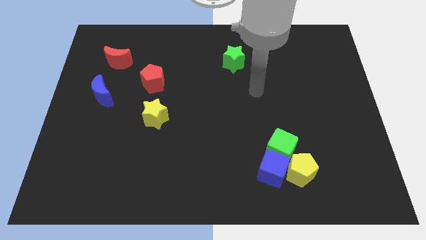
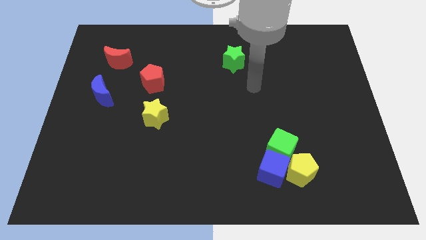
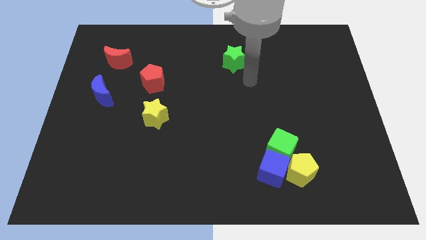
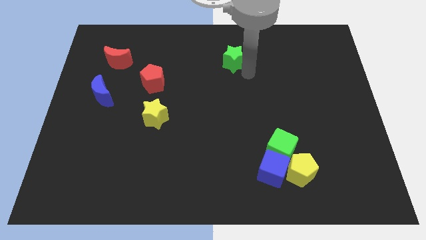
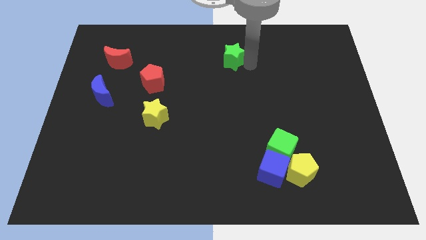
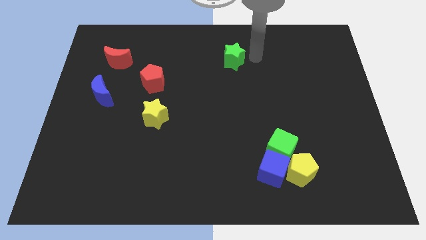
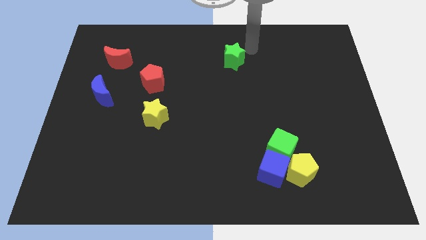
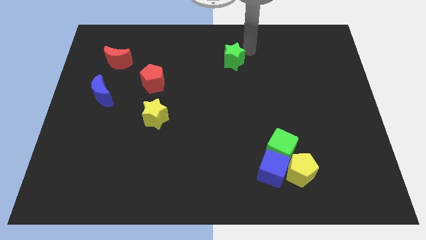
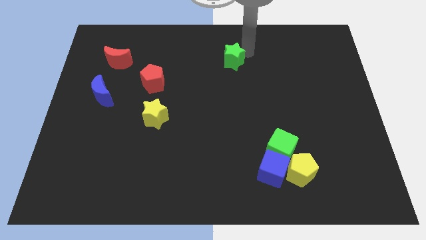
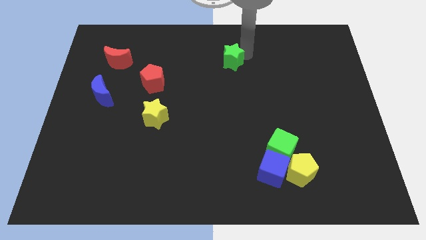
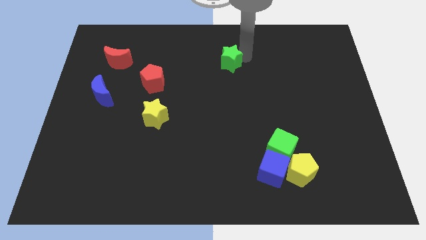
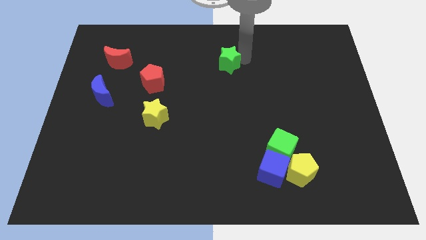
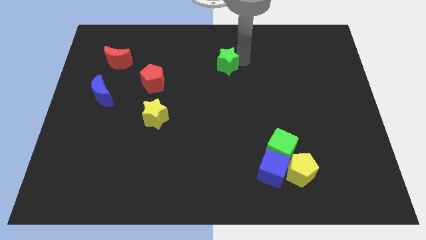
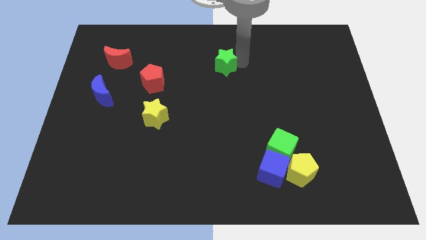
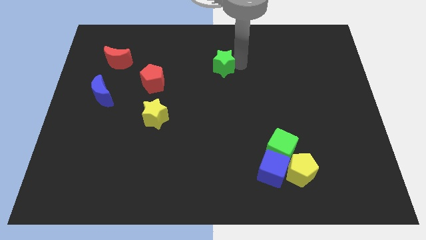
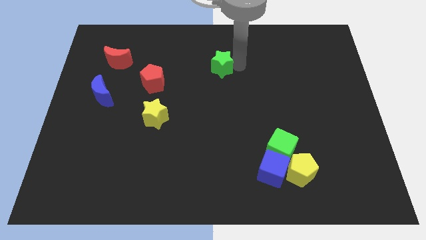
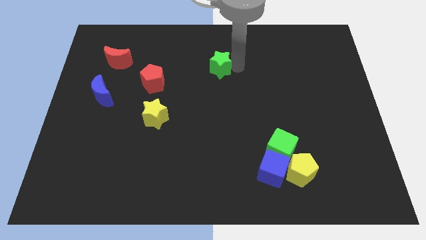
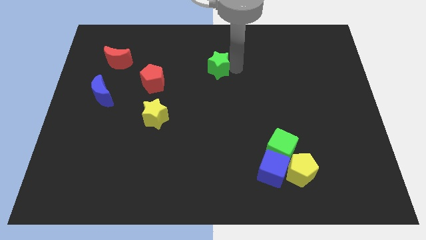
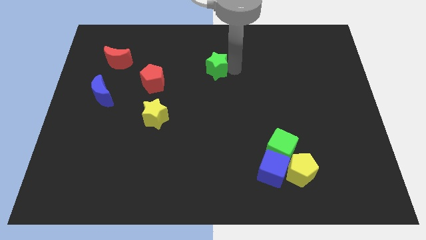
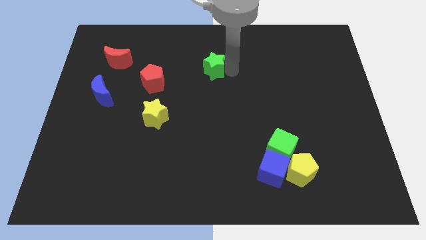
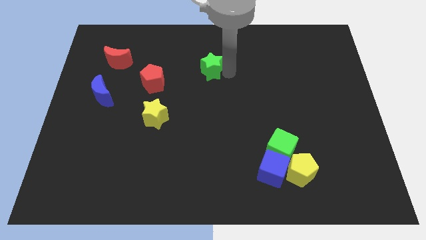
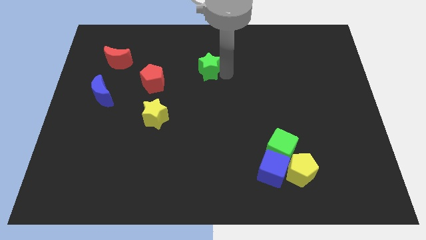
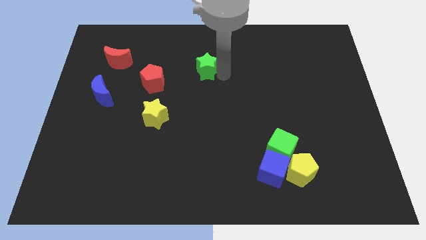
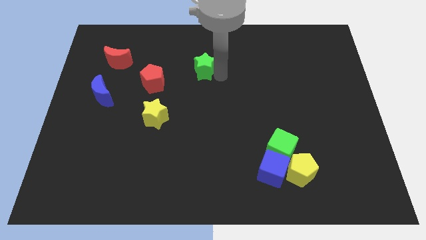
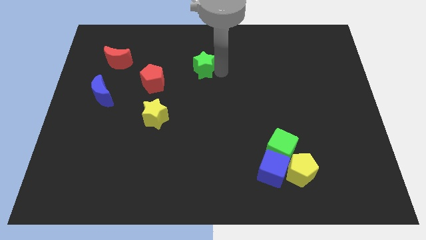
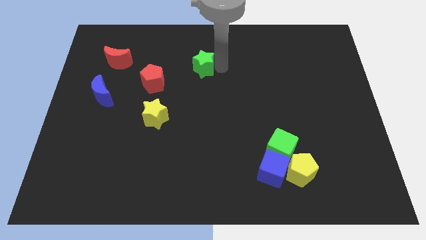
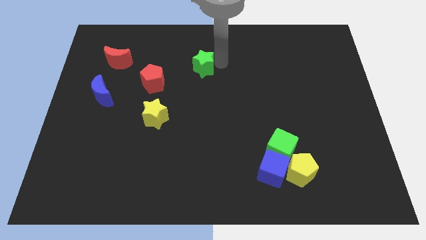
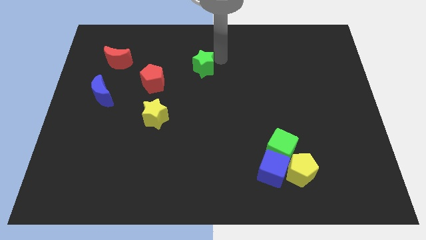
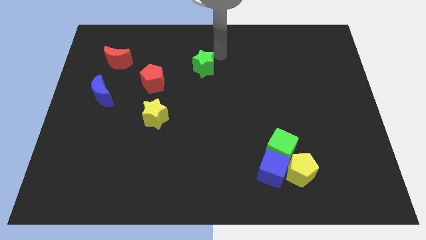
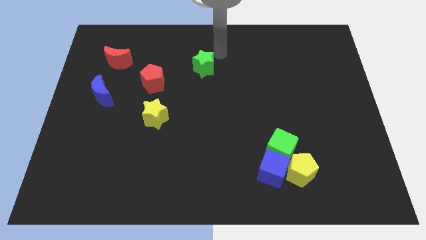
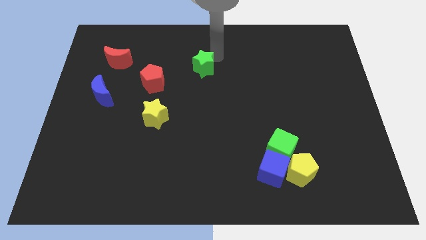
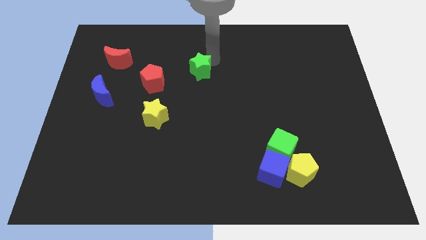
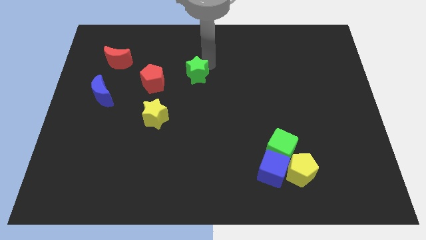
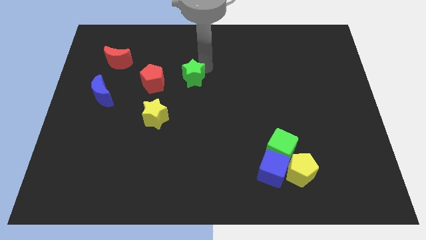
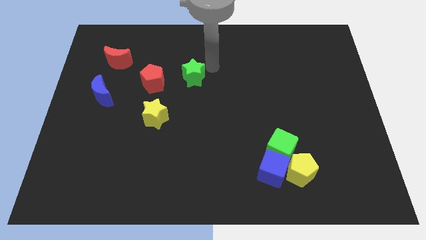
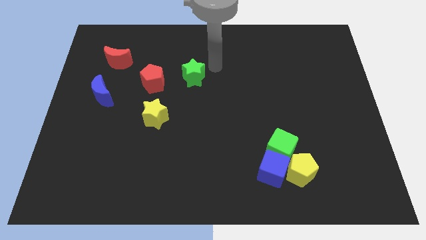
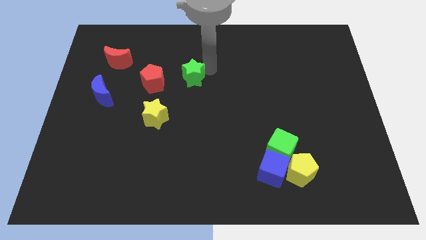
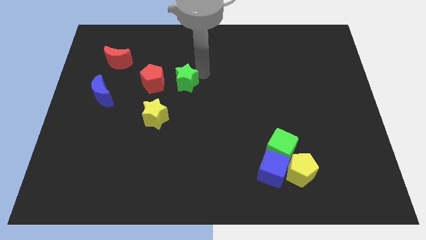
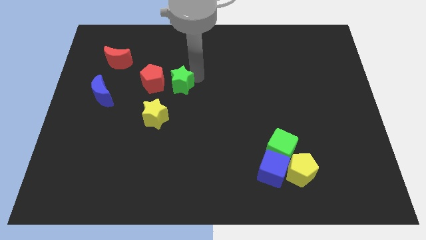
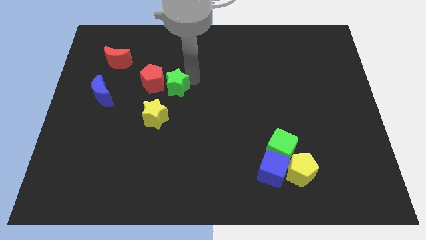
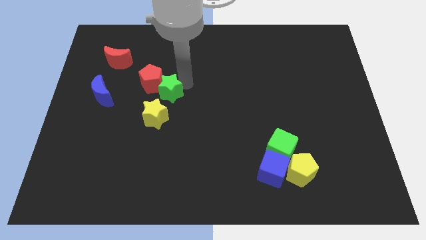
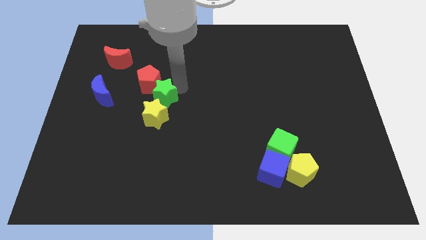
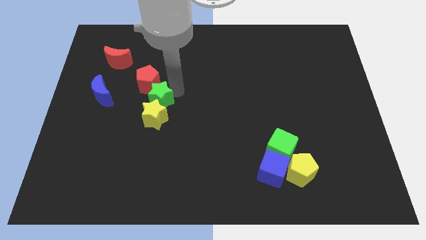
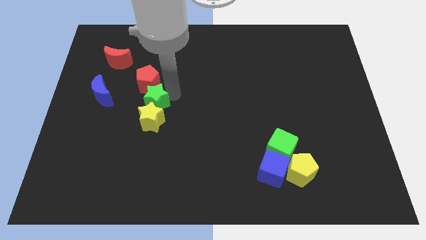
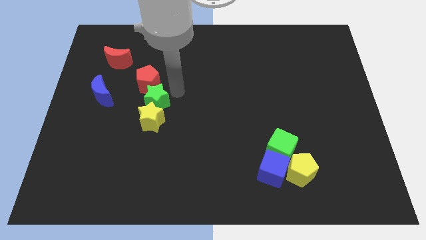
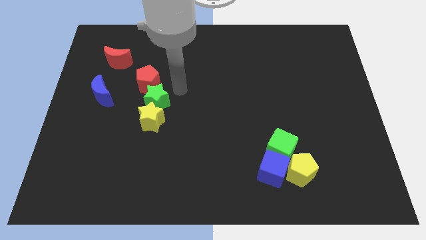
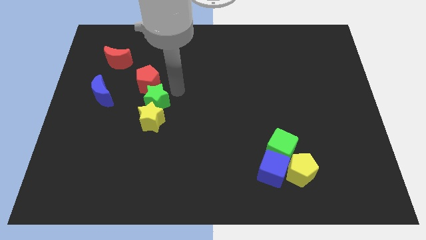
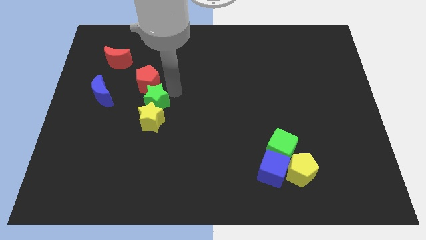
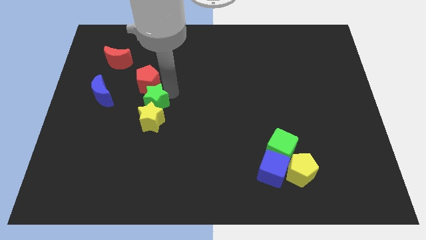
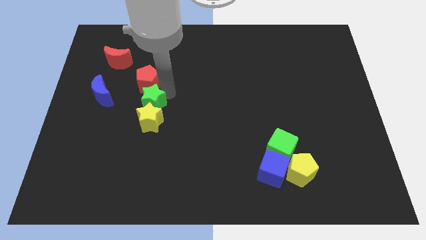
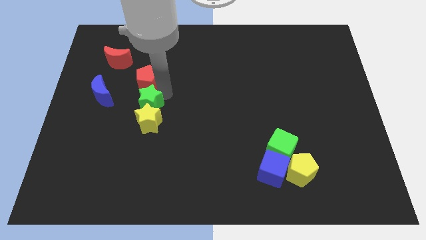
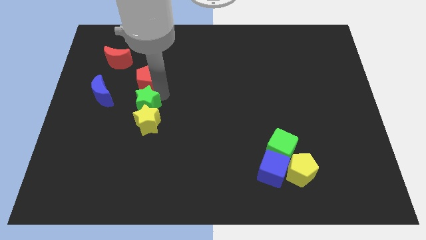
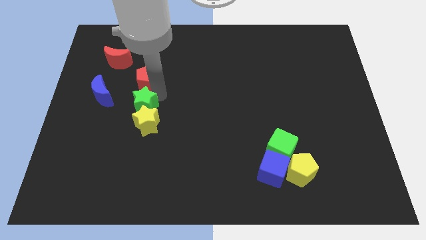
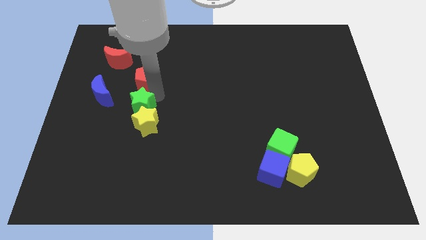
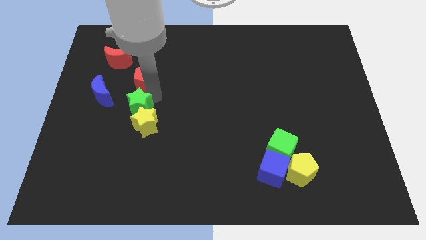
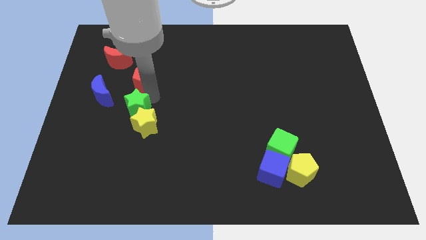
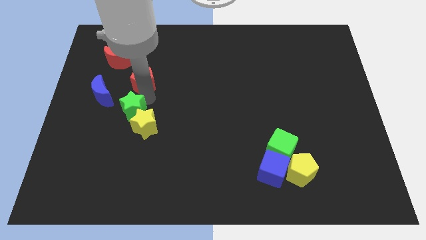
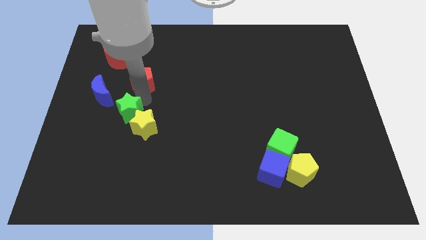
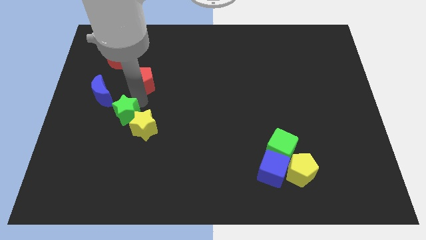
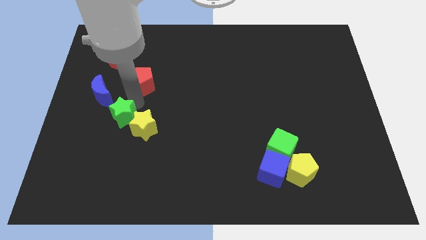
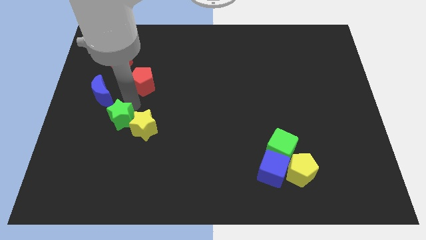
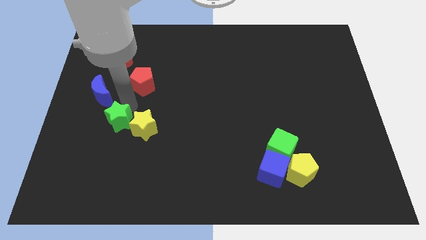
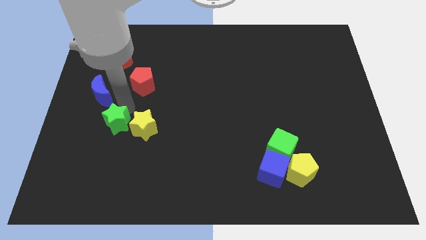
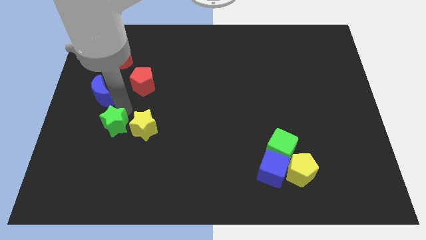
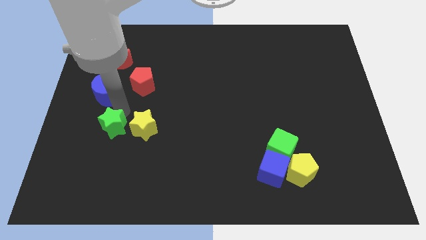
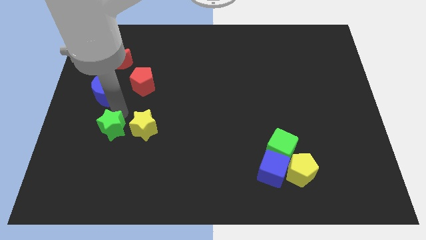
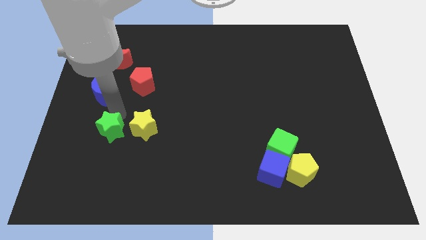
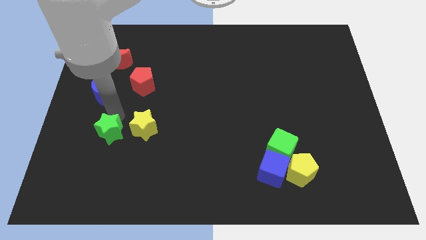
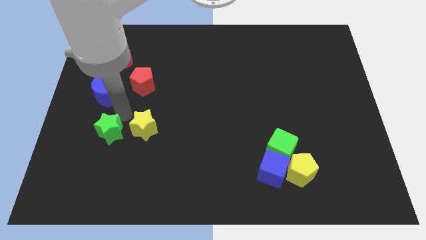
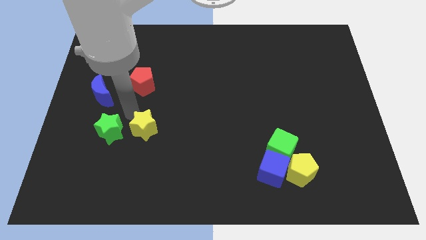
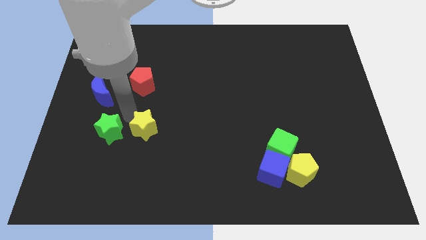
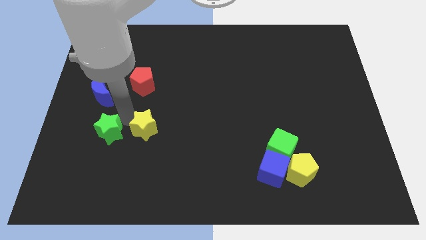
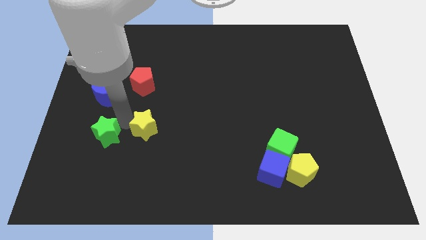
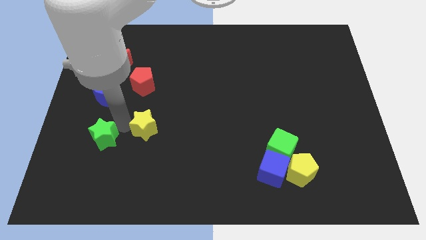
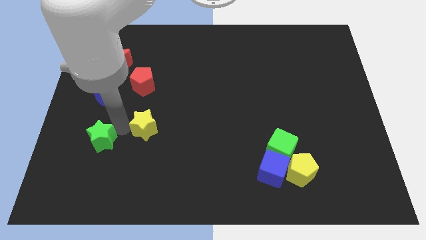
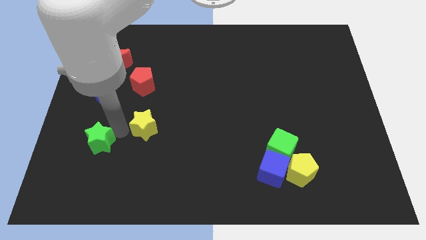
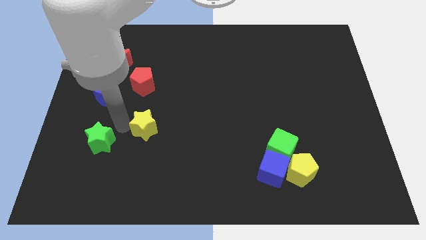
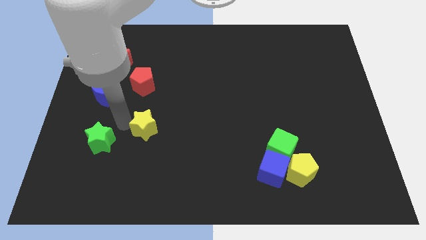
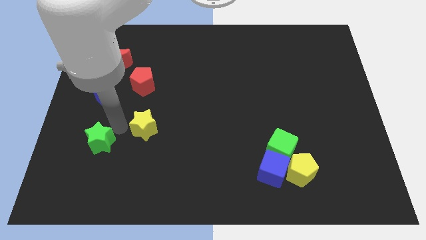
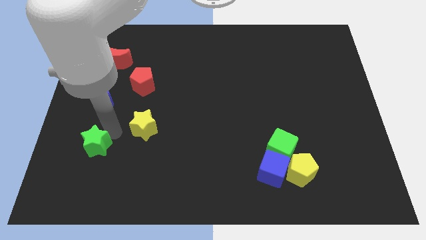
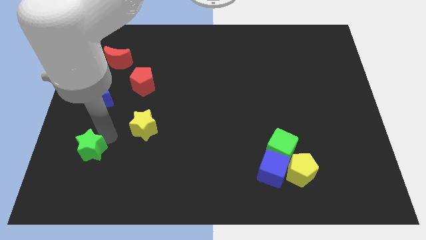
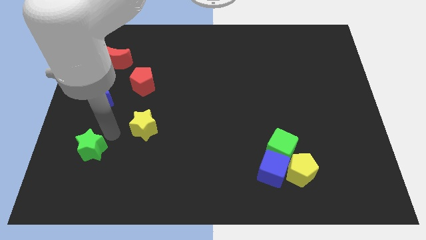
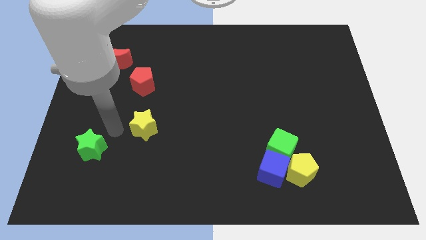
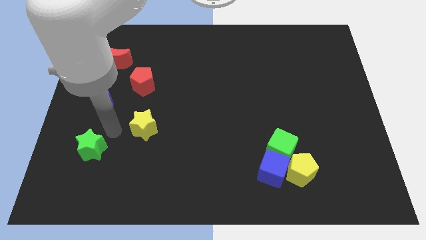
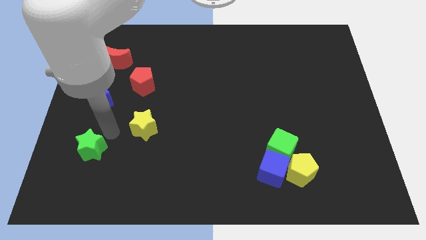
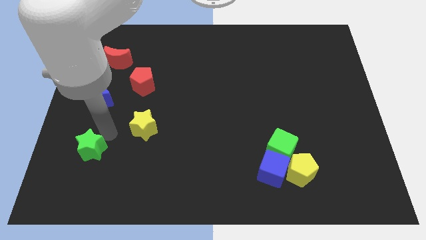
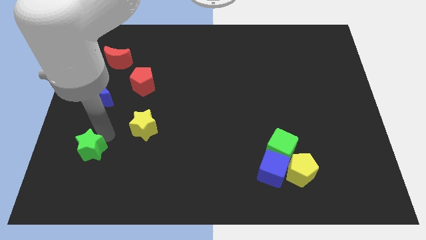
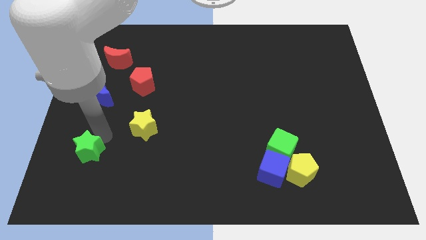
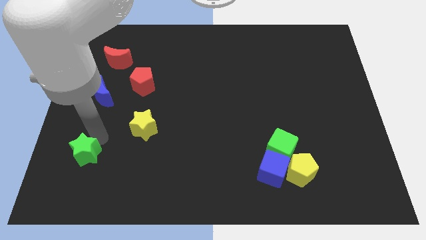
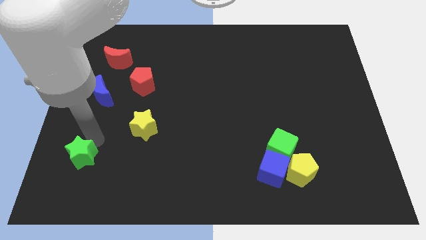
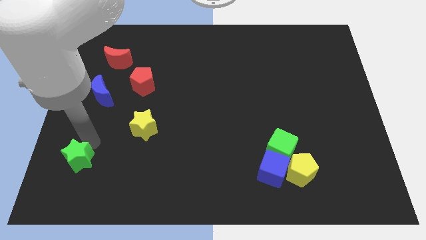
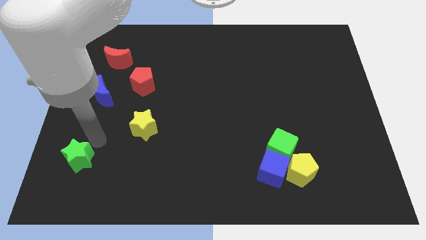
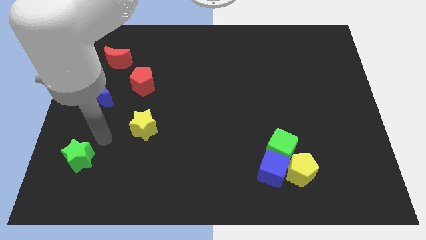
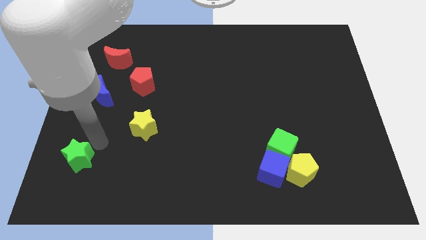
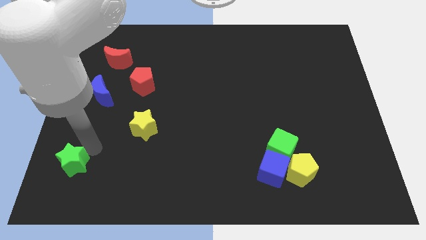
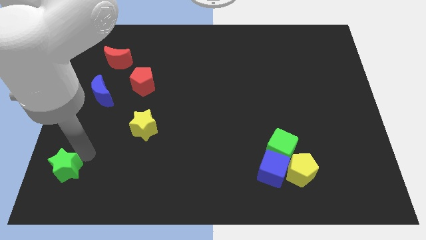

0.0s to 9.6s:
push the green star to the bottom left corner
